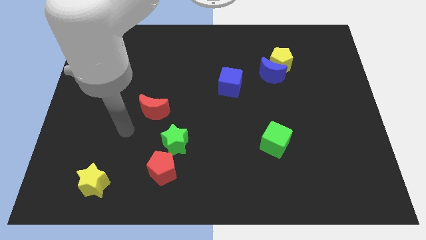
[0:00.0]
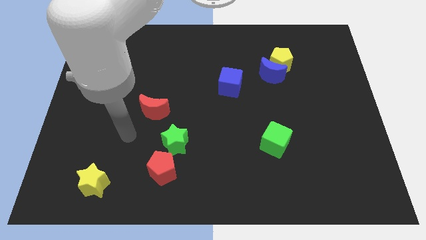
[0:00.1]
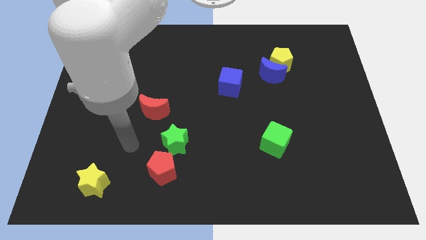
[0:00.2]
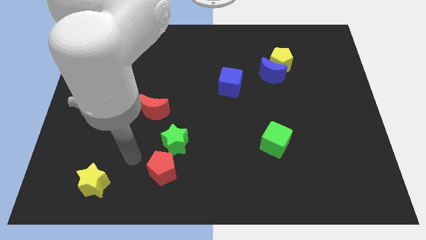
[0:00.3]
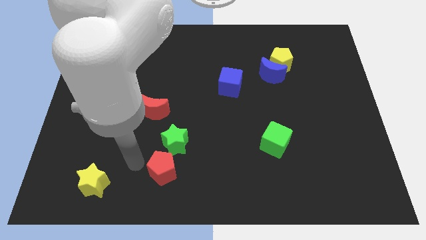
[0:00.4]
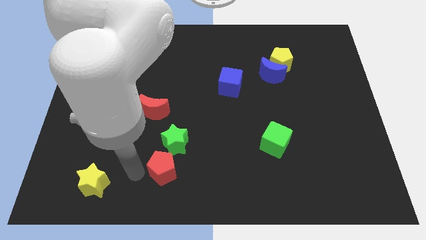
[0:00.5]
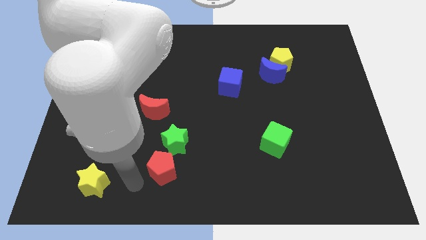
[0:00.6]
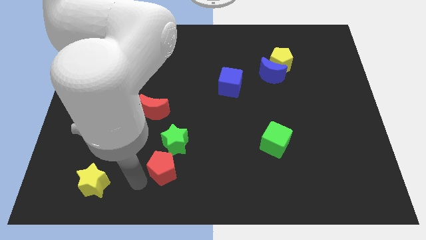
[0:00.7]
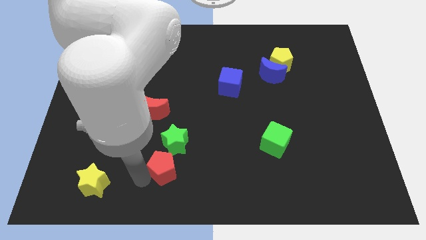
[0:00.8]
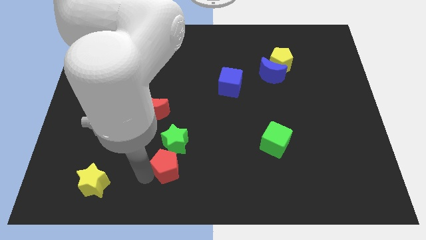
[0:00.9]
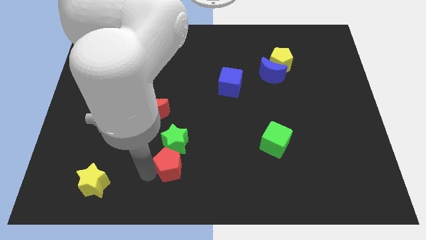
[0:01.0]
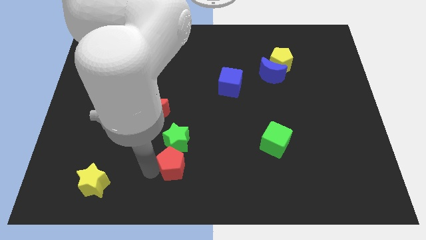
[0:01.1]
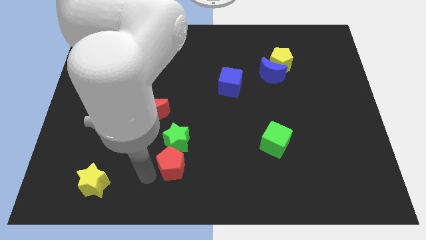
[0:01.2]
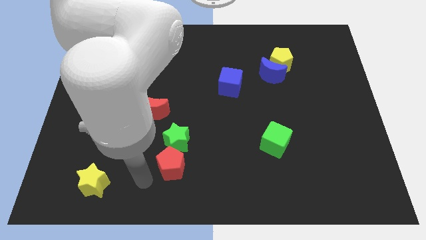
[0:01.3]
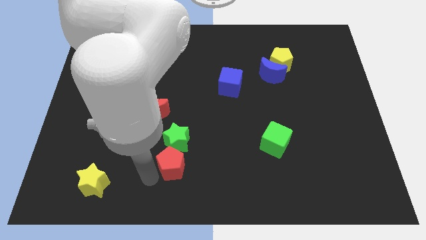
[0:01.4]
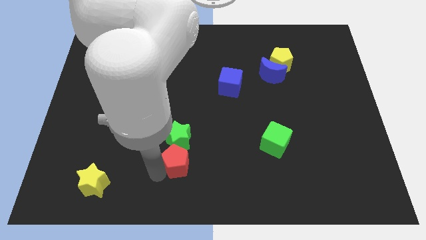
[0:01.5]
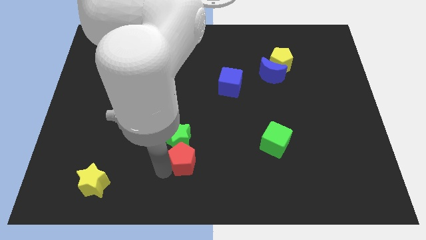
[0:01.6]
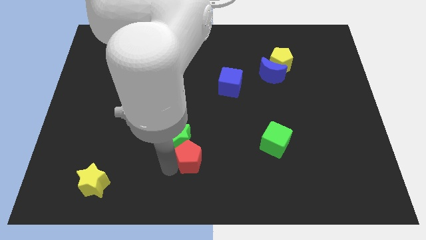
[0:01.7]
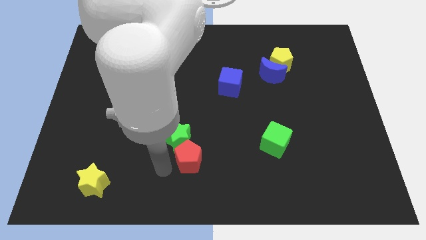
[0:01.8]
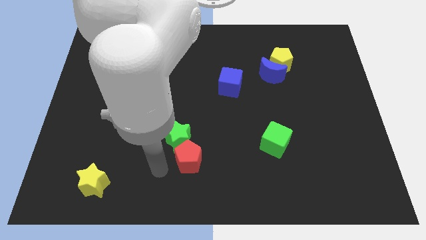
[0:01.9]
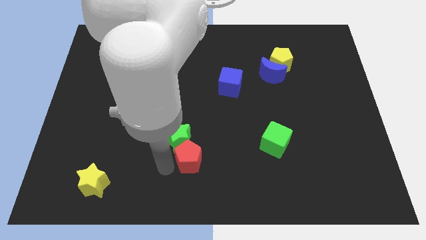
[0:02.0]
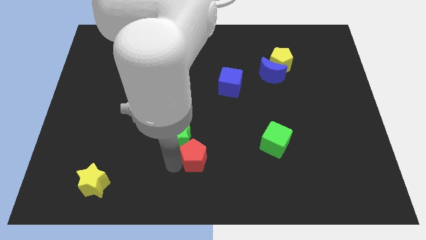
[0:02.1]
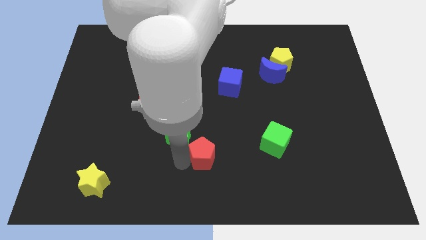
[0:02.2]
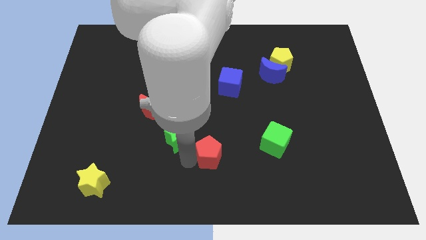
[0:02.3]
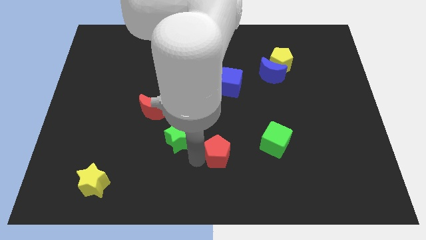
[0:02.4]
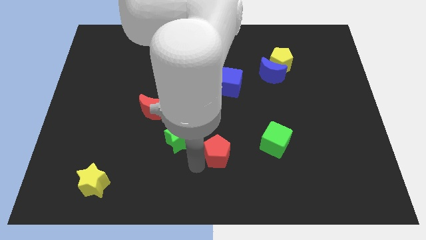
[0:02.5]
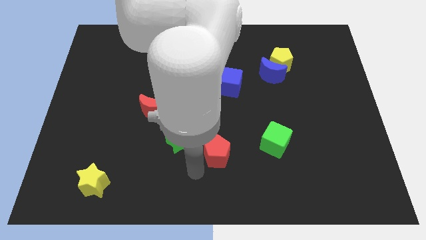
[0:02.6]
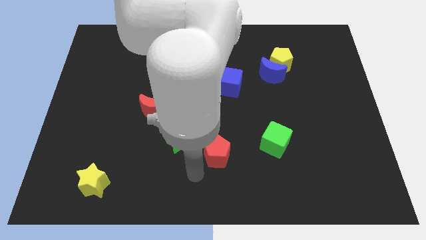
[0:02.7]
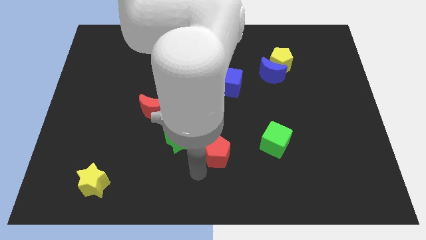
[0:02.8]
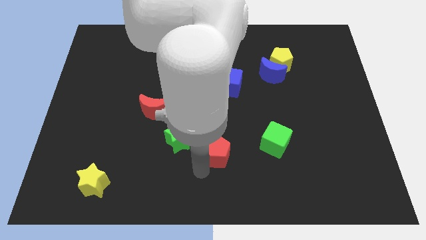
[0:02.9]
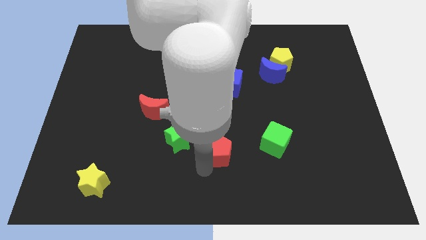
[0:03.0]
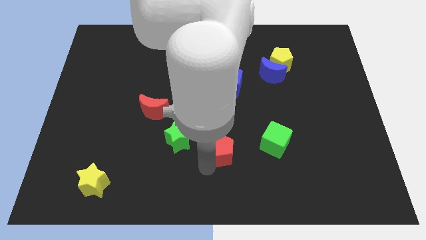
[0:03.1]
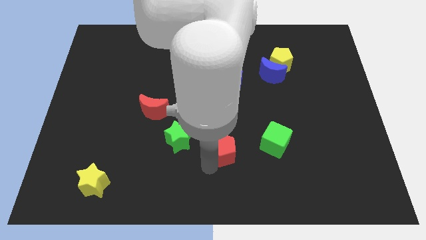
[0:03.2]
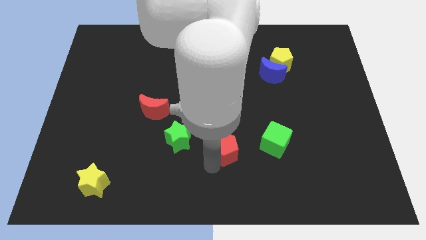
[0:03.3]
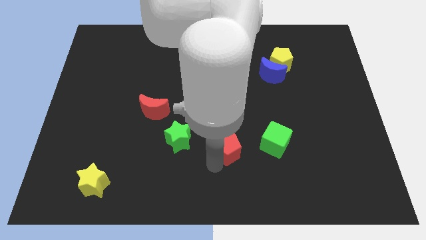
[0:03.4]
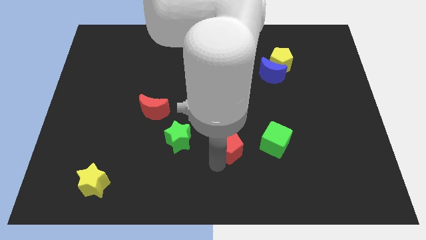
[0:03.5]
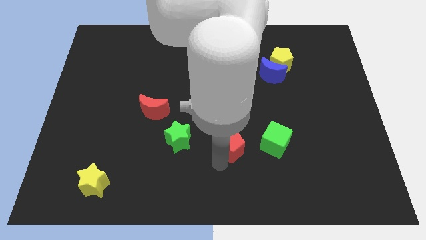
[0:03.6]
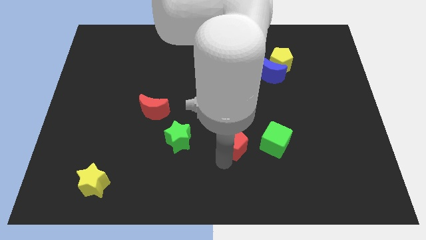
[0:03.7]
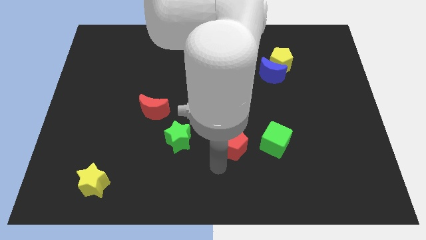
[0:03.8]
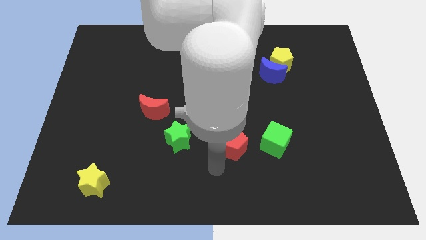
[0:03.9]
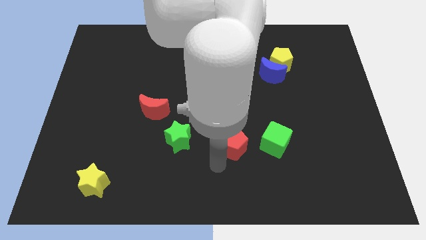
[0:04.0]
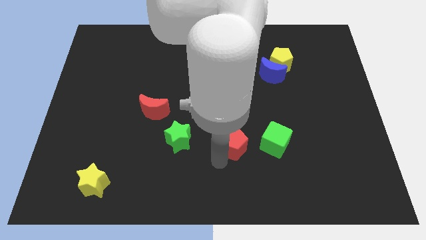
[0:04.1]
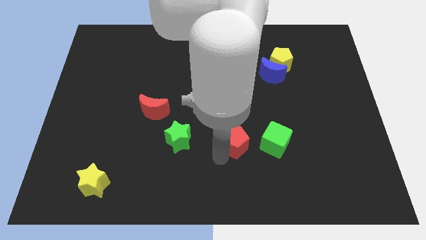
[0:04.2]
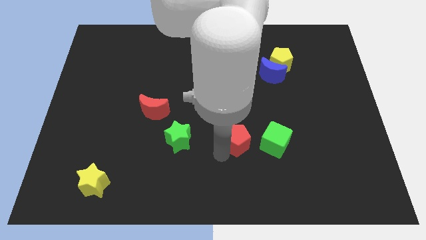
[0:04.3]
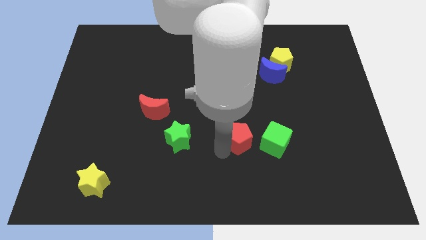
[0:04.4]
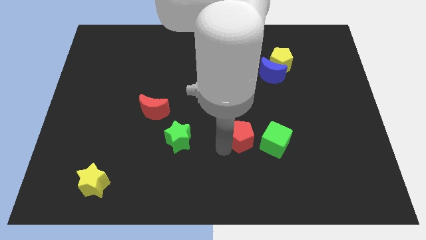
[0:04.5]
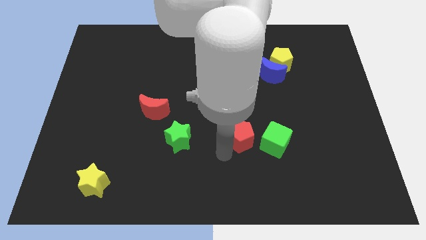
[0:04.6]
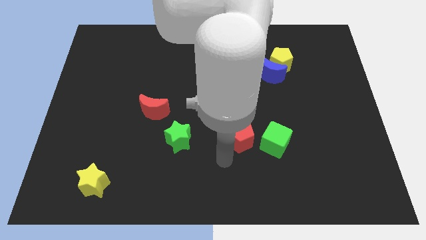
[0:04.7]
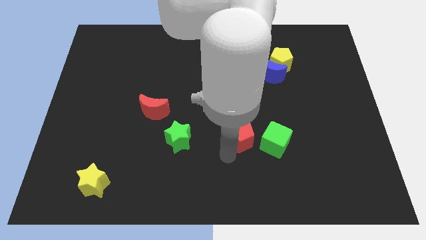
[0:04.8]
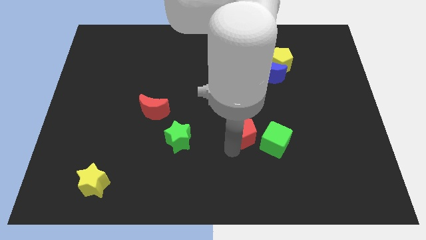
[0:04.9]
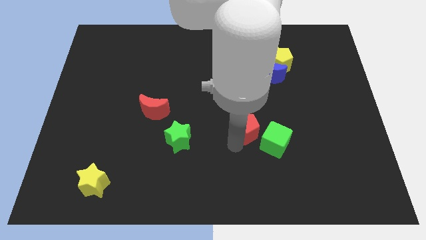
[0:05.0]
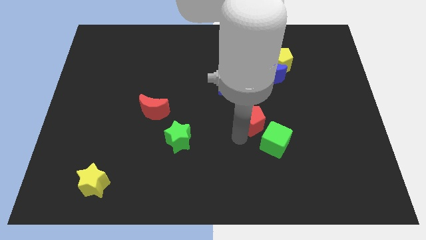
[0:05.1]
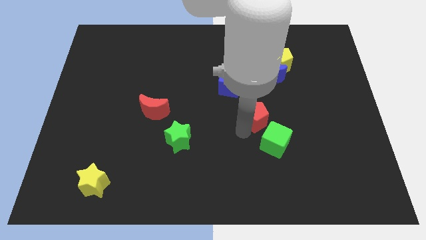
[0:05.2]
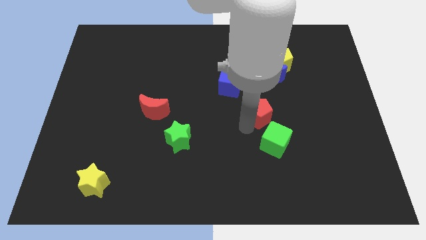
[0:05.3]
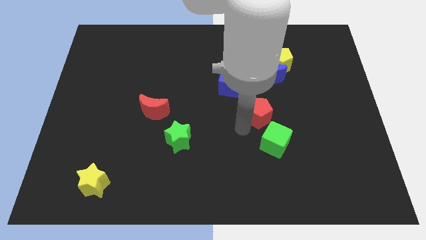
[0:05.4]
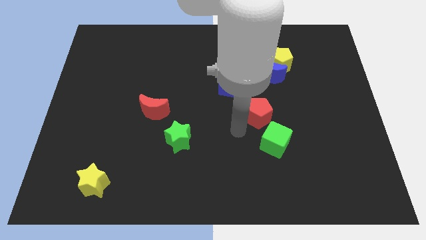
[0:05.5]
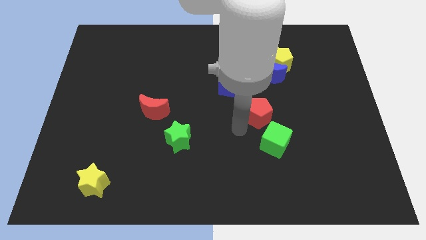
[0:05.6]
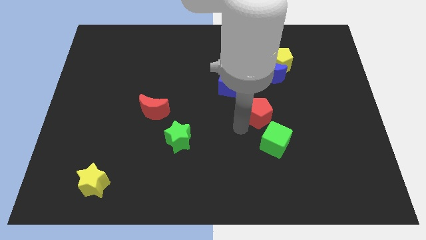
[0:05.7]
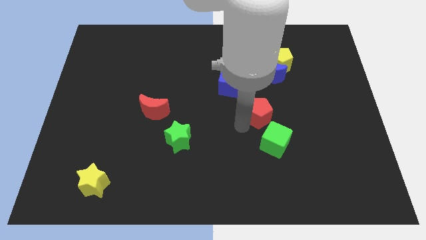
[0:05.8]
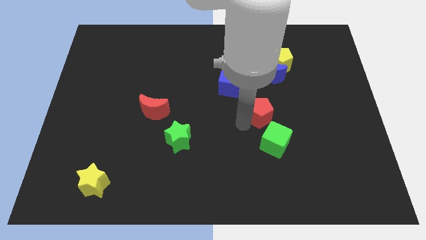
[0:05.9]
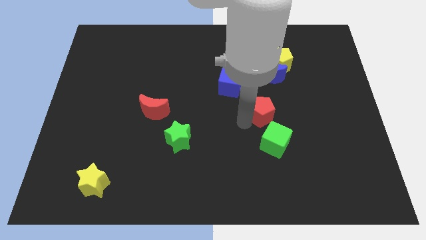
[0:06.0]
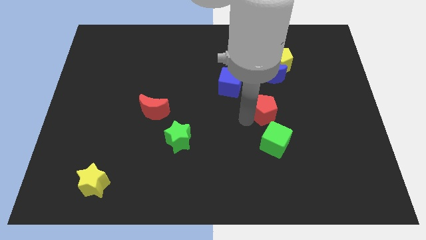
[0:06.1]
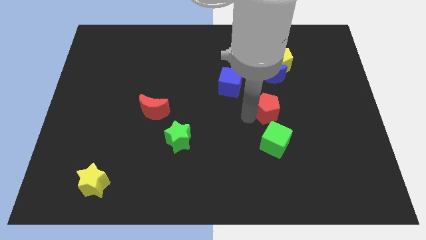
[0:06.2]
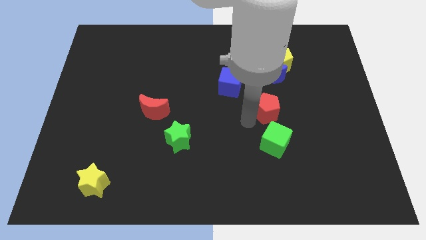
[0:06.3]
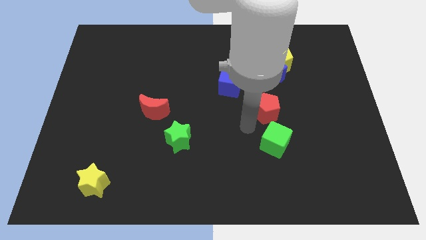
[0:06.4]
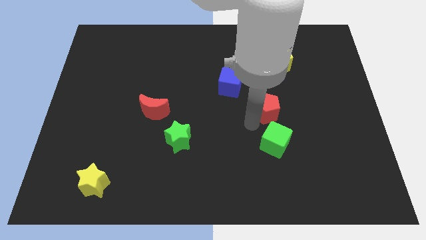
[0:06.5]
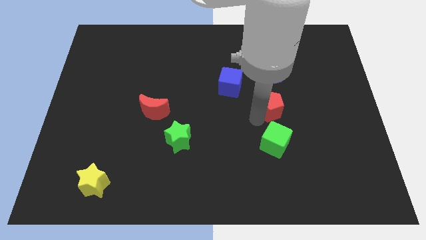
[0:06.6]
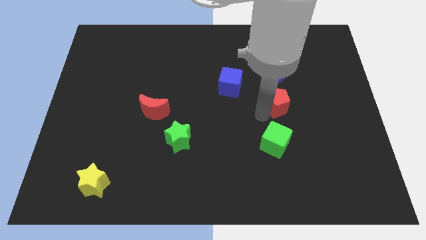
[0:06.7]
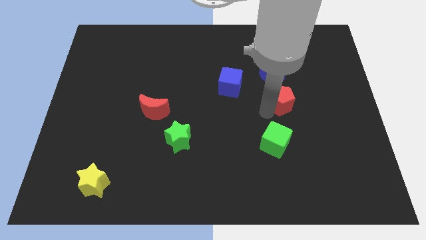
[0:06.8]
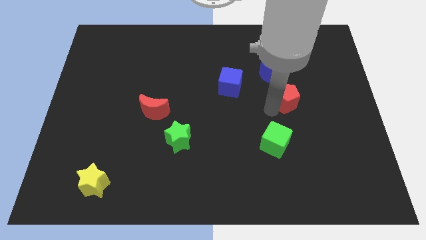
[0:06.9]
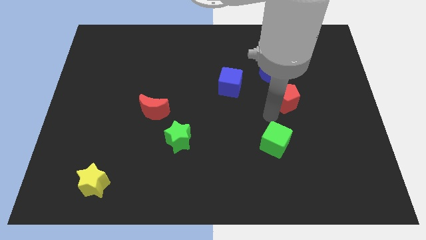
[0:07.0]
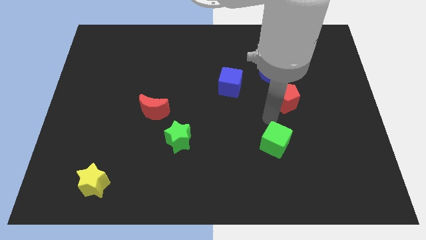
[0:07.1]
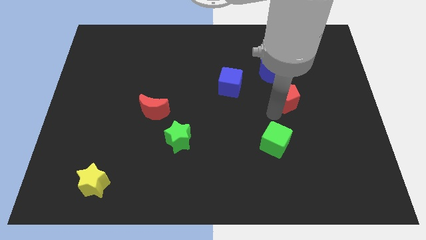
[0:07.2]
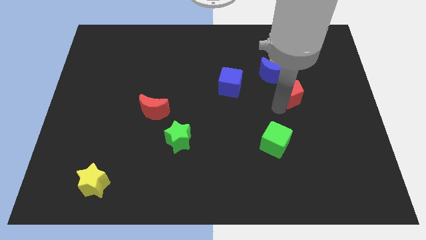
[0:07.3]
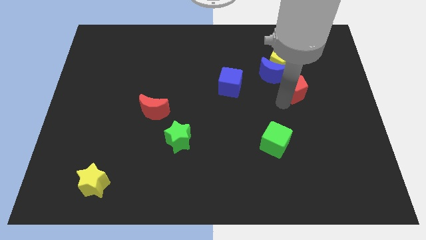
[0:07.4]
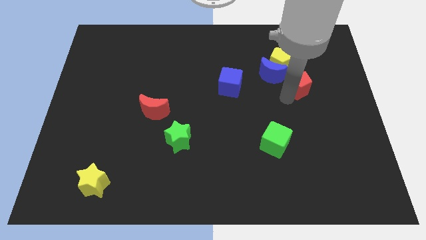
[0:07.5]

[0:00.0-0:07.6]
slide the red pentagon to the bottom right side of the yellow pentagon
